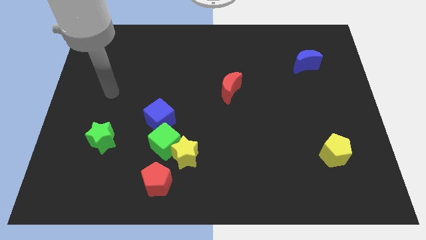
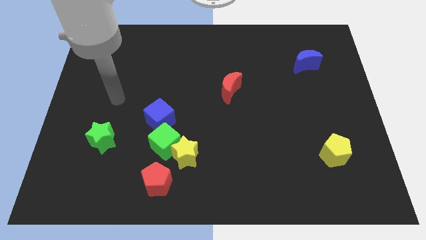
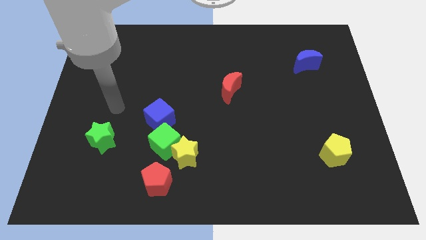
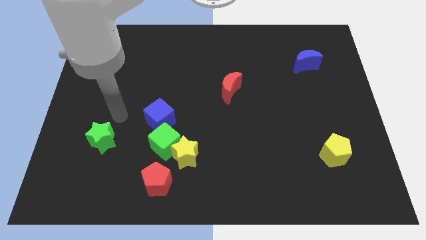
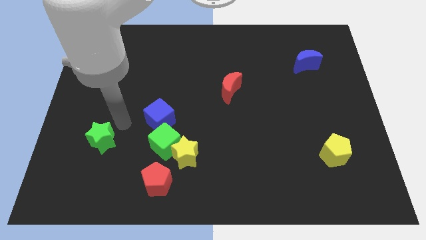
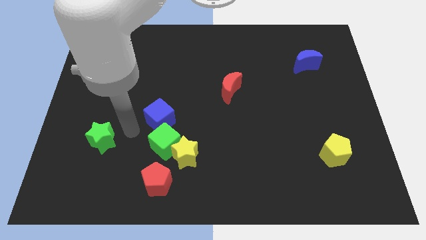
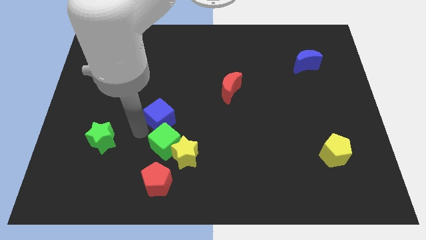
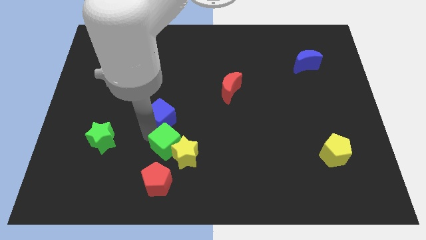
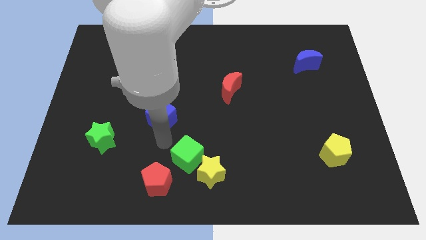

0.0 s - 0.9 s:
pull the blue cube apart from the green cube

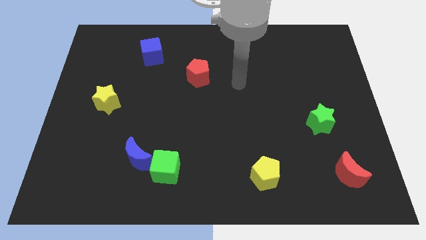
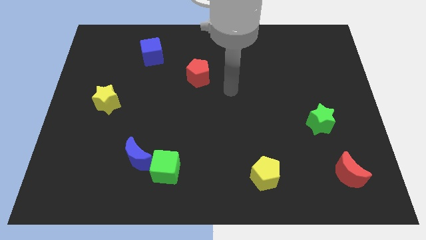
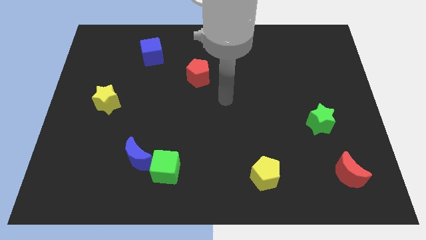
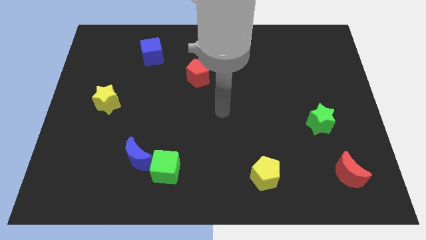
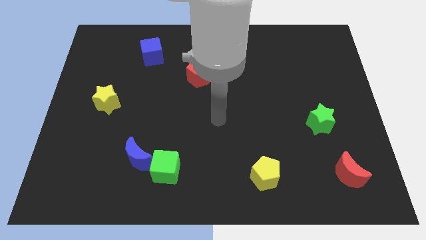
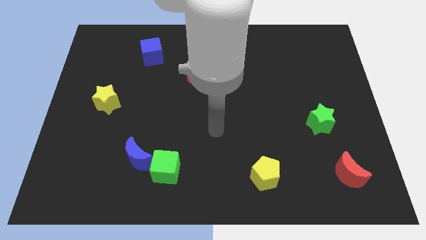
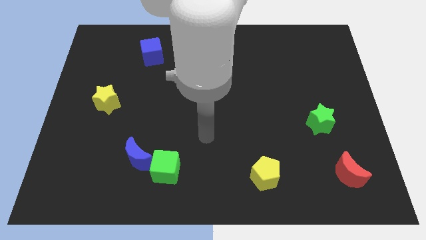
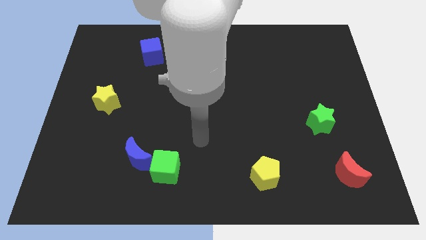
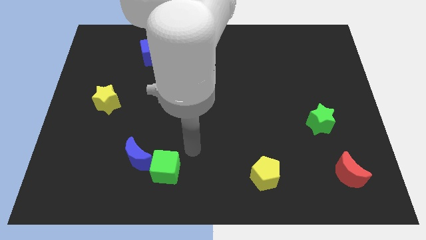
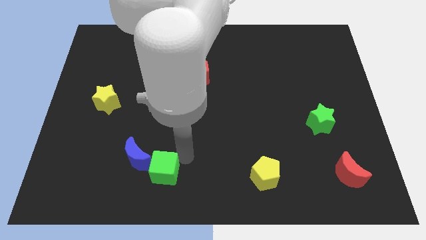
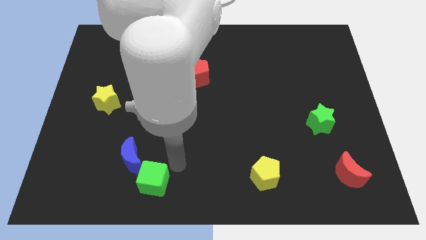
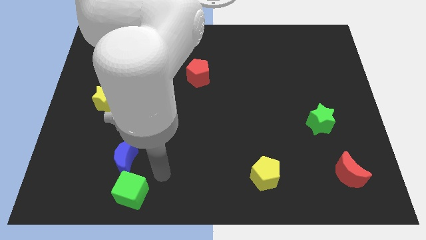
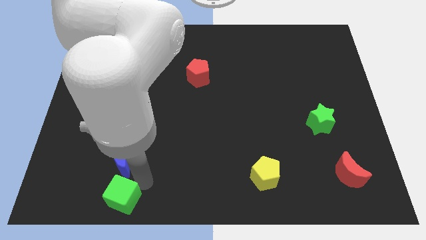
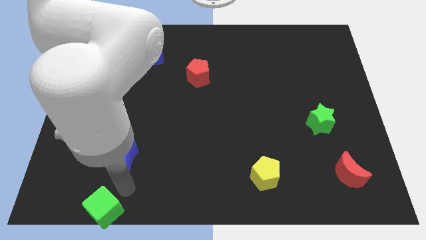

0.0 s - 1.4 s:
pull the blue moon apart from the green cube

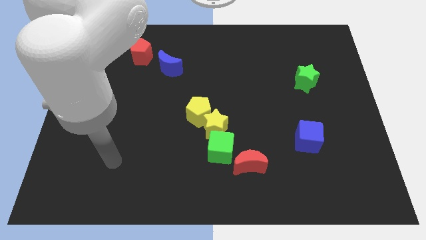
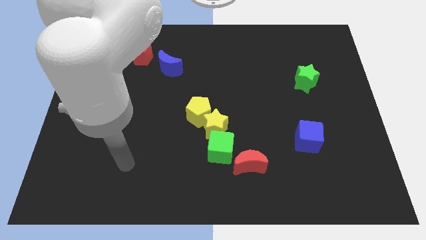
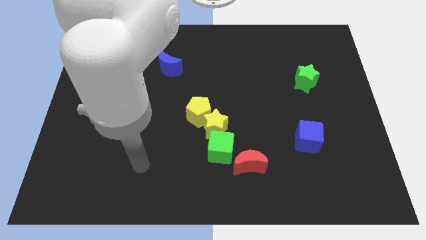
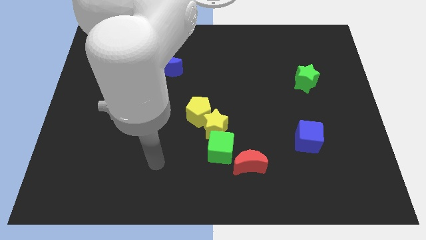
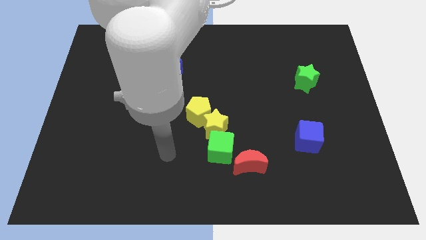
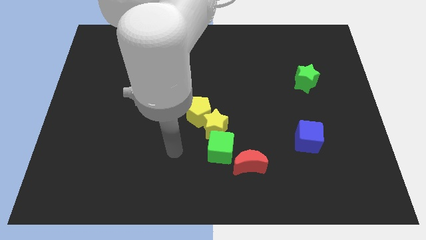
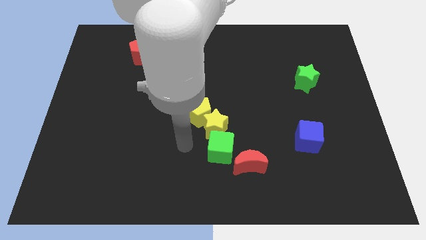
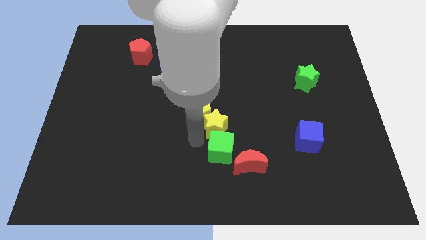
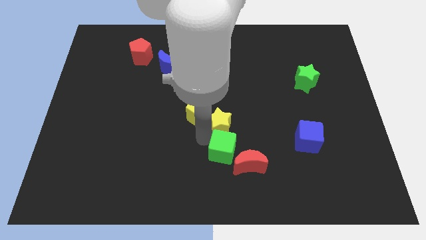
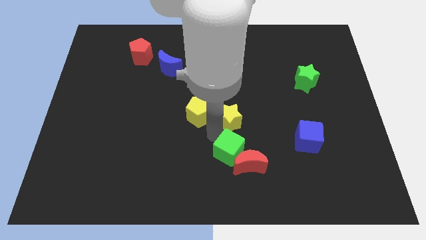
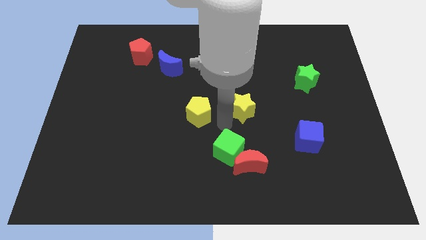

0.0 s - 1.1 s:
pull the yellow pentagon apart from the yellow star

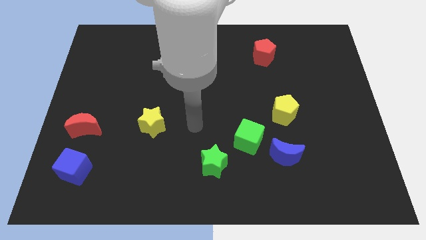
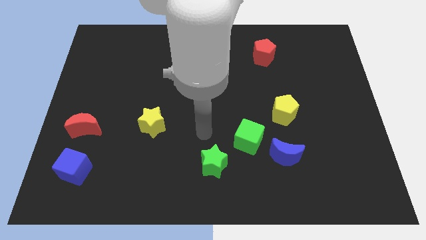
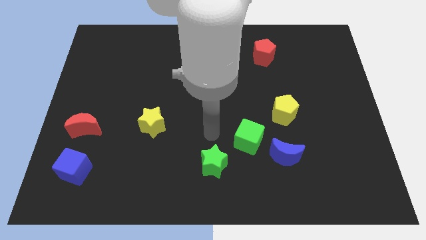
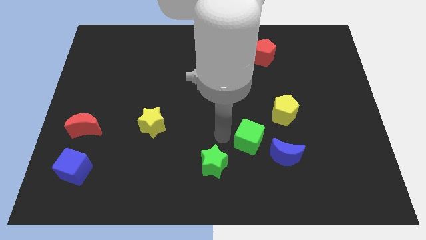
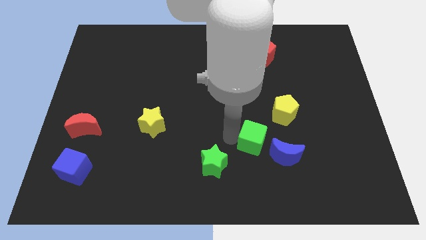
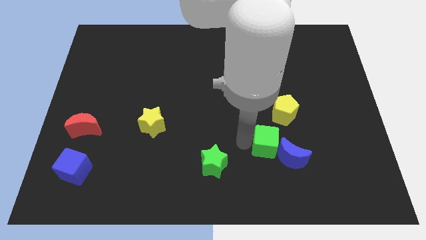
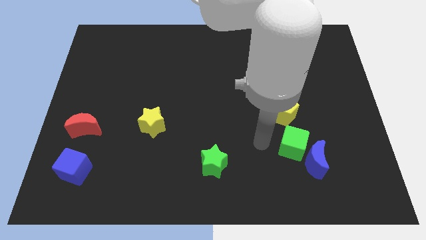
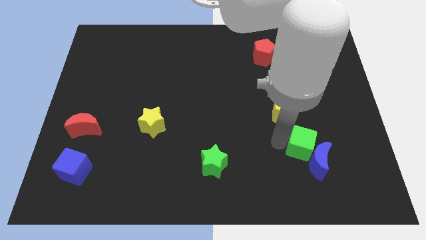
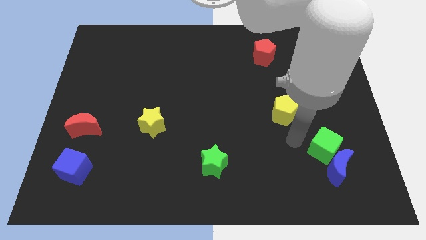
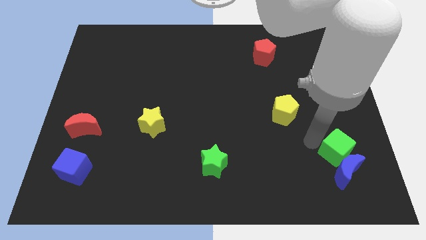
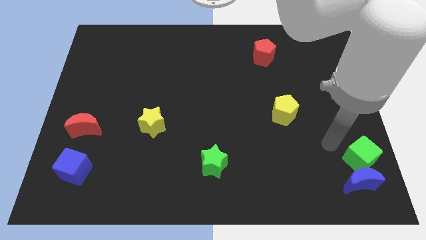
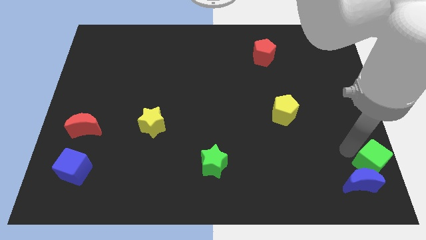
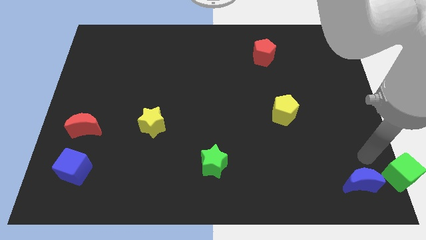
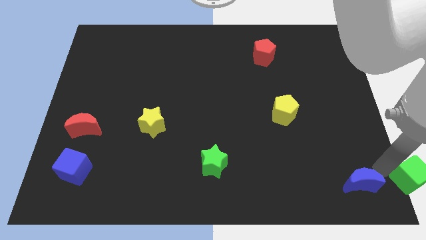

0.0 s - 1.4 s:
separate the blue moon from the green cube

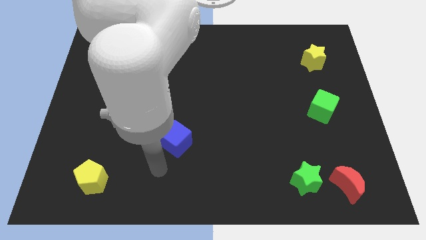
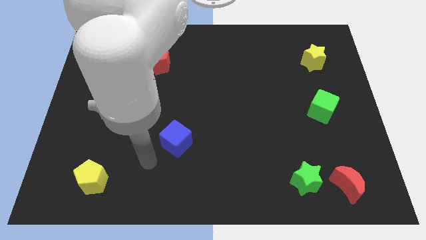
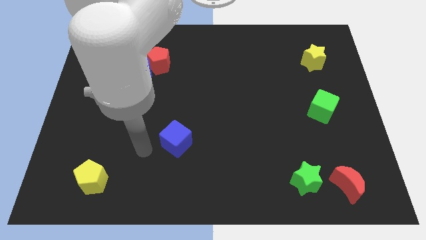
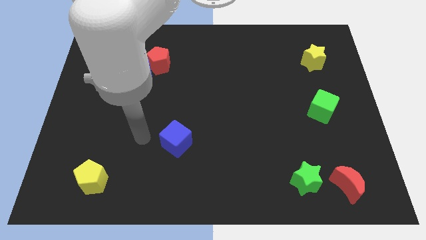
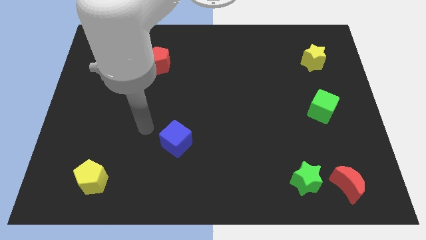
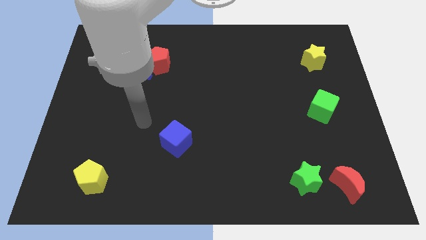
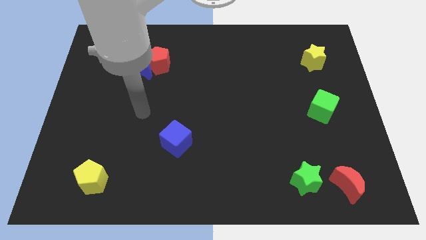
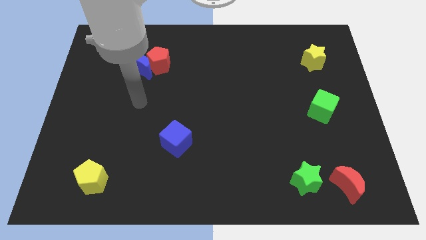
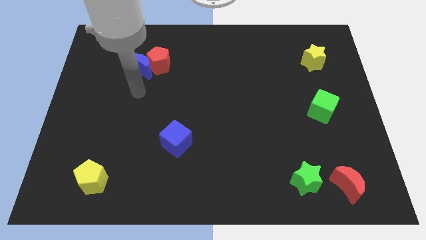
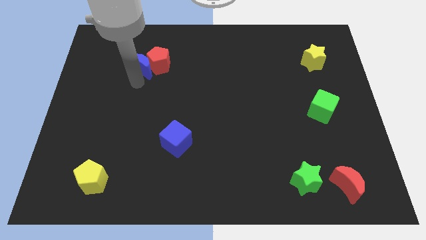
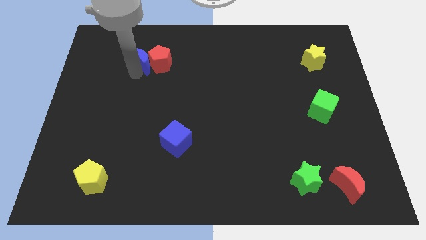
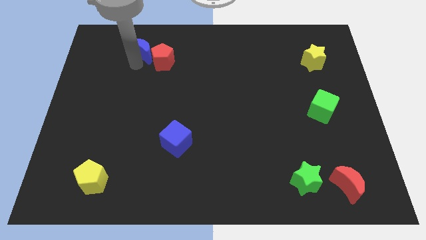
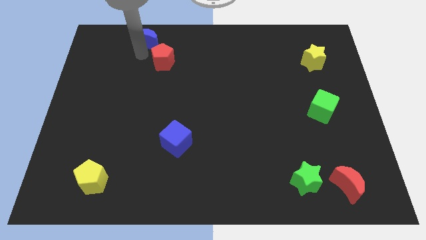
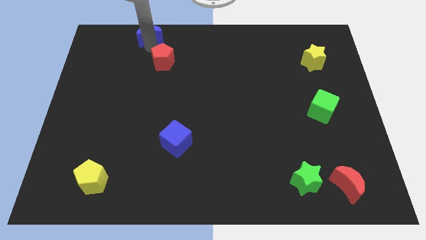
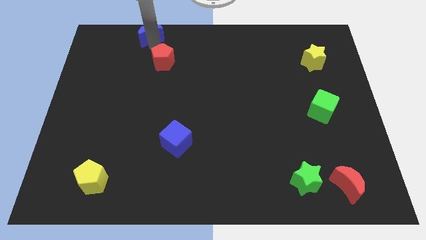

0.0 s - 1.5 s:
separate the red pentagon from the blue moon

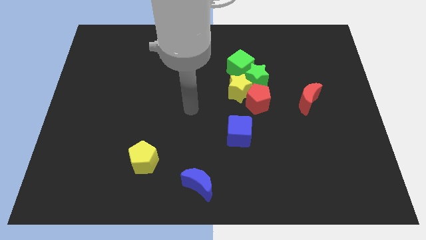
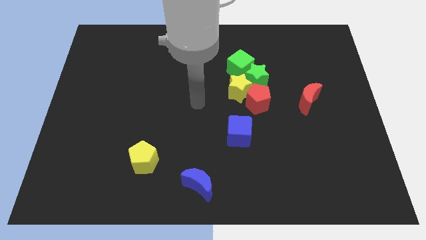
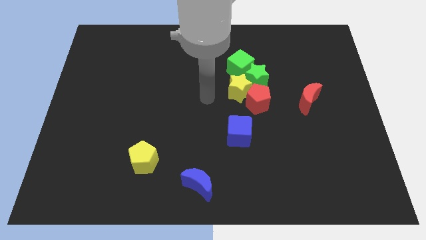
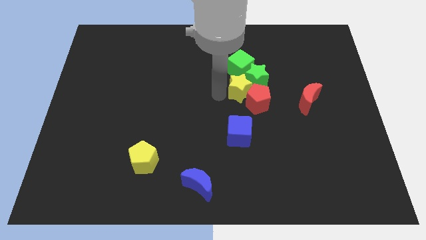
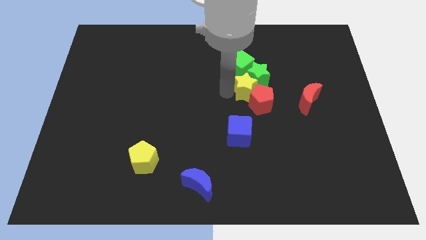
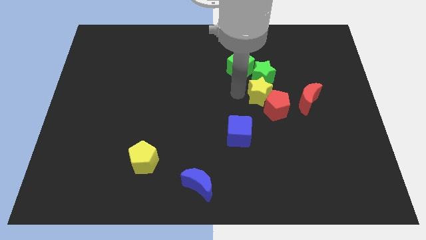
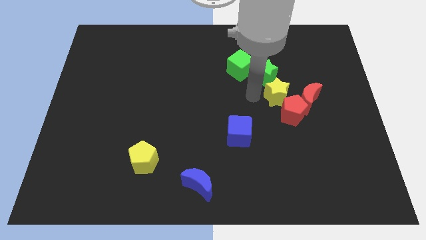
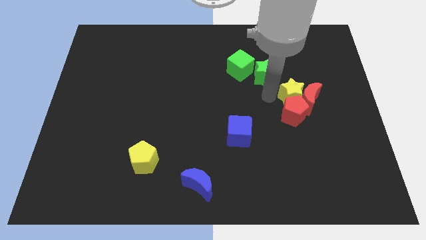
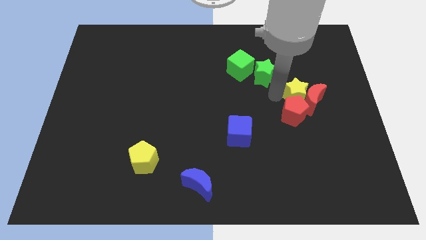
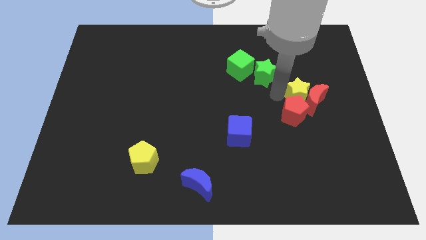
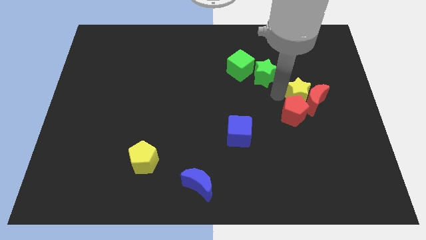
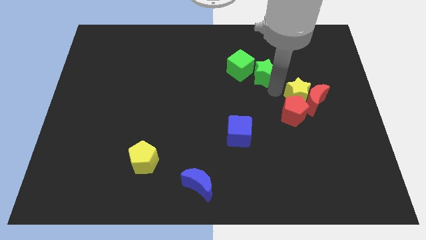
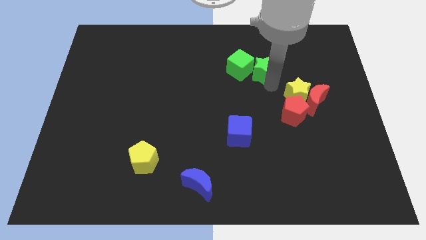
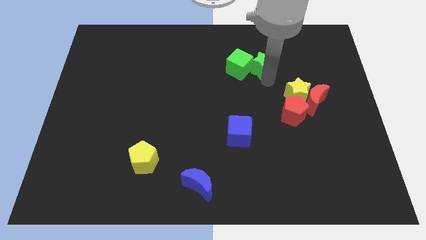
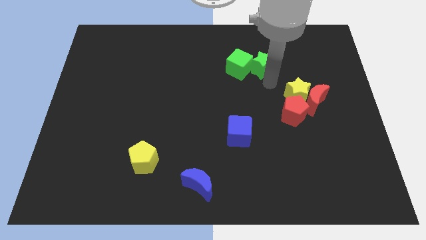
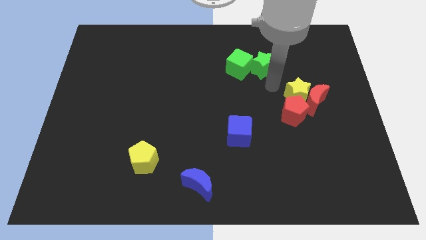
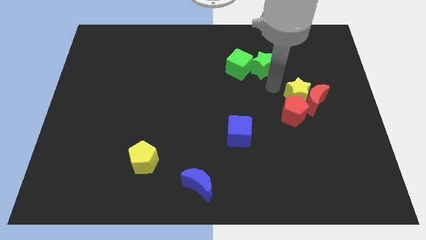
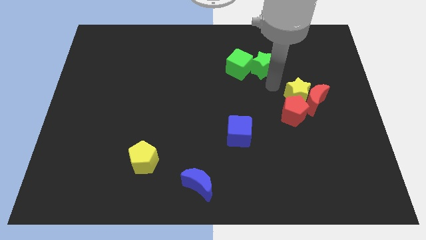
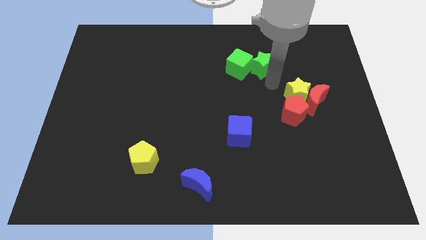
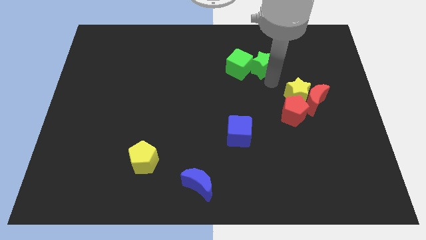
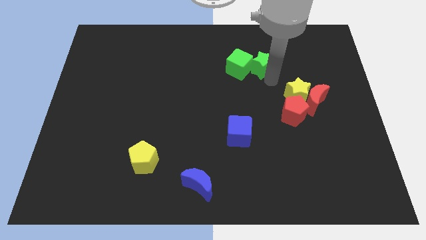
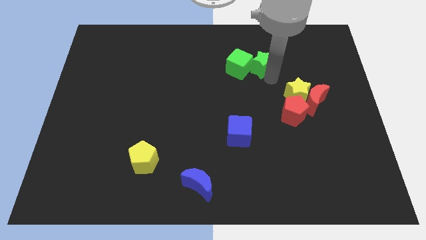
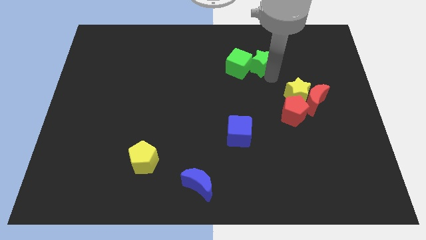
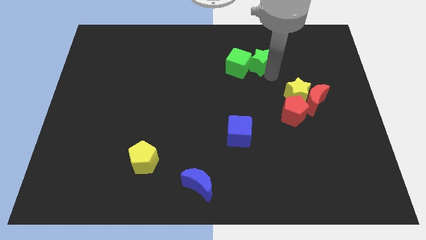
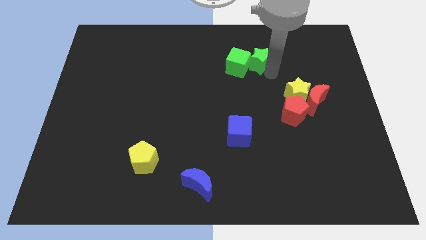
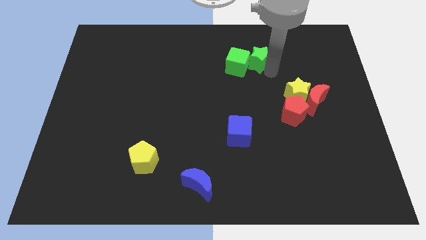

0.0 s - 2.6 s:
separate the green star from the yellow star, green cube, and red pentagon

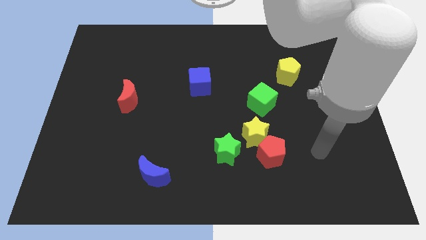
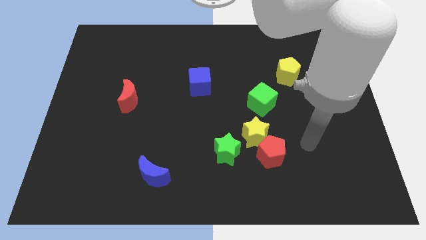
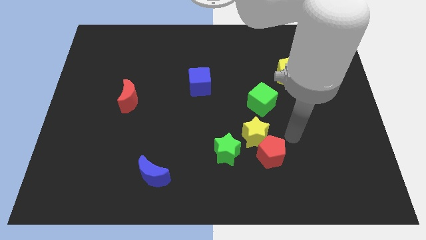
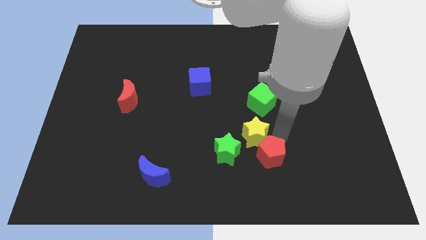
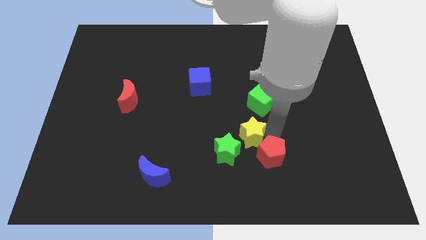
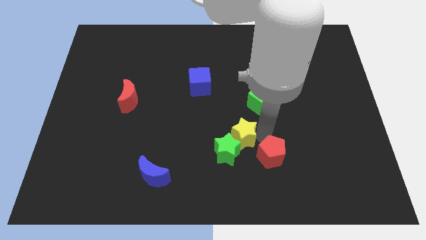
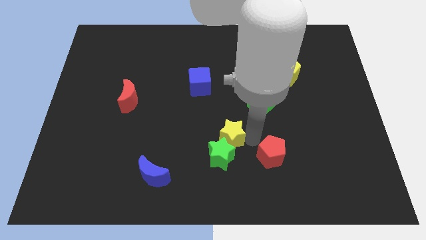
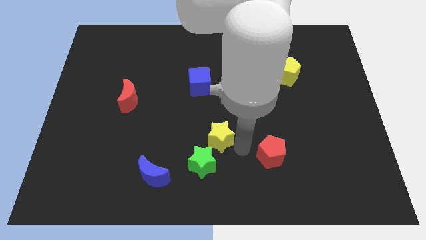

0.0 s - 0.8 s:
move the red pentagon away from the yellow star and green star
